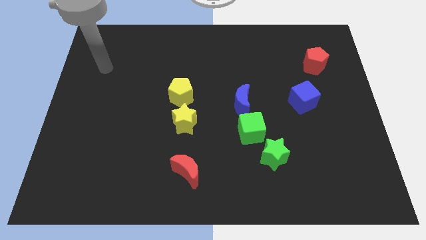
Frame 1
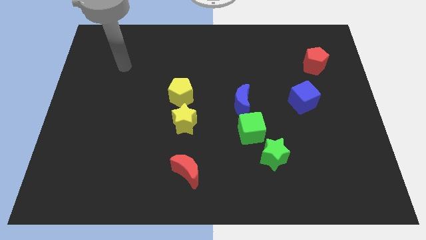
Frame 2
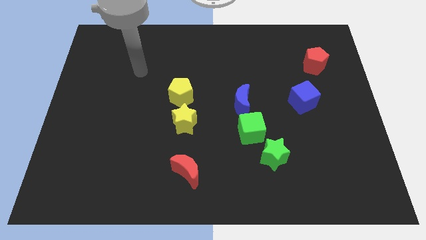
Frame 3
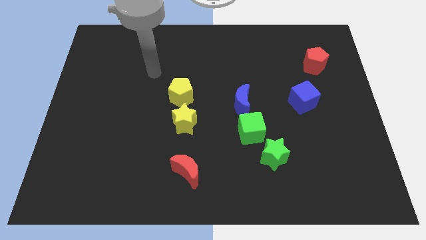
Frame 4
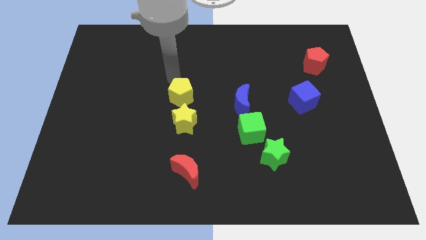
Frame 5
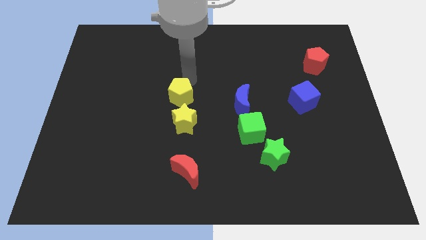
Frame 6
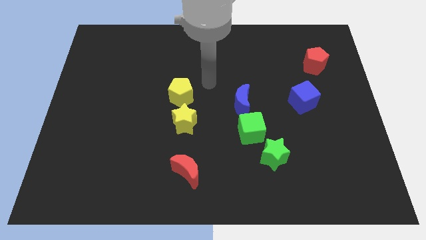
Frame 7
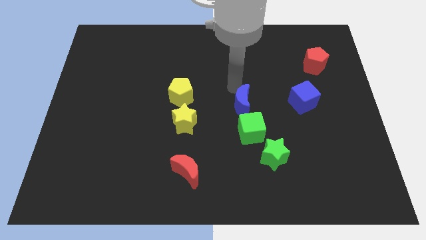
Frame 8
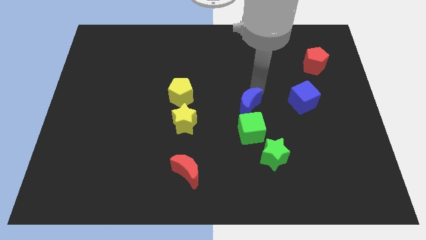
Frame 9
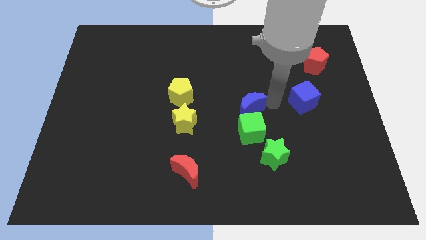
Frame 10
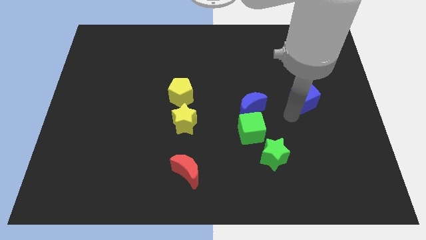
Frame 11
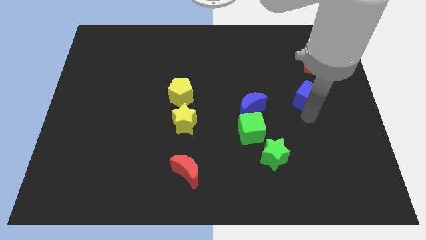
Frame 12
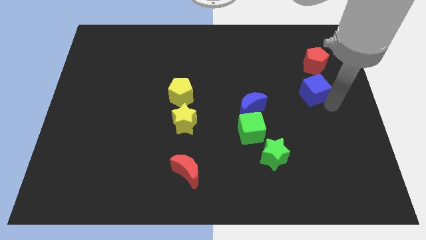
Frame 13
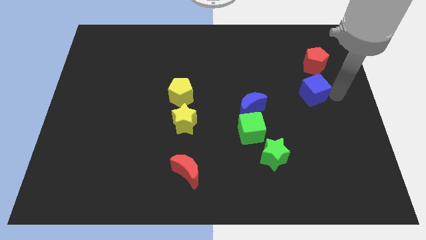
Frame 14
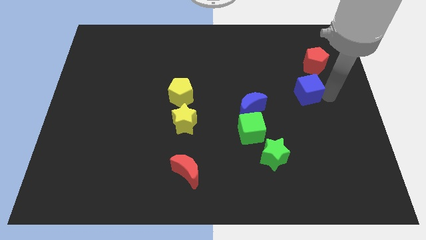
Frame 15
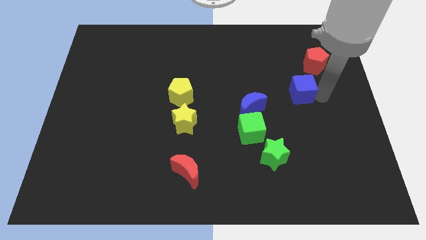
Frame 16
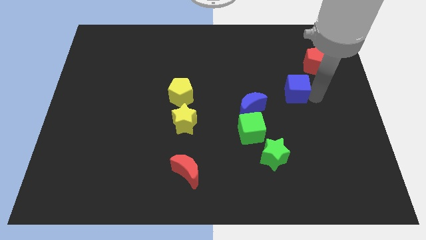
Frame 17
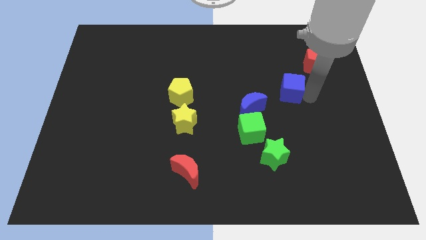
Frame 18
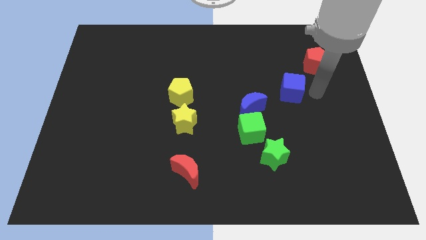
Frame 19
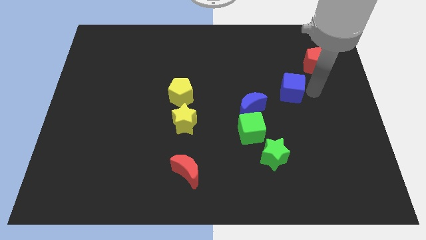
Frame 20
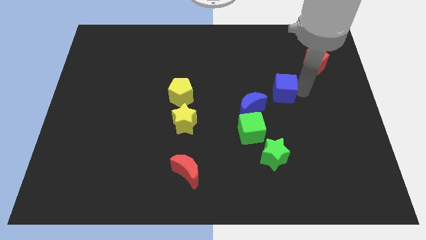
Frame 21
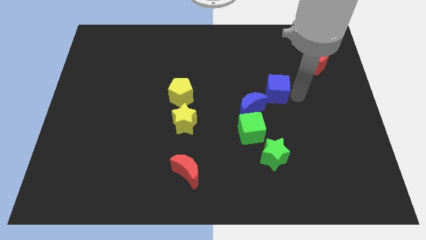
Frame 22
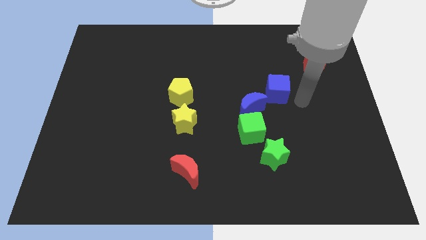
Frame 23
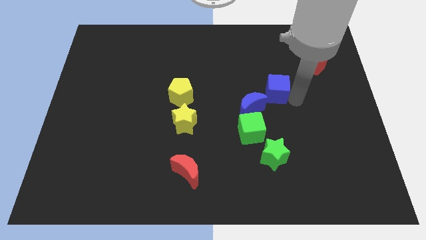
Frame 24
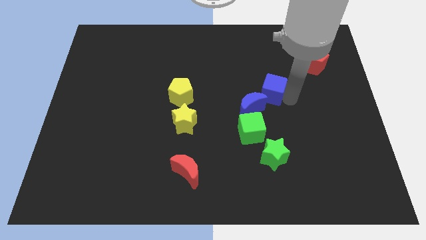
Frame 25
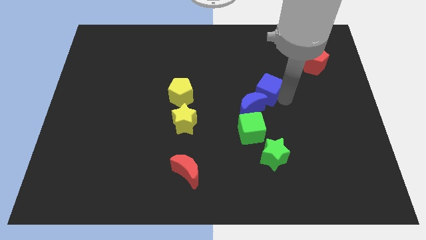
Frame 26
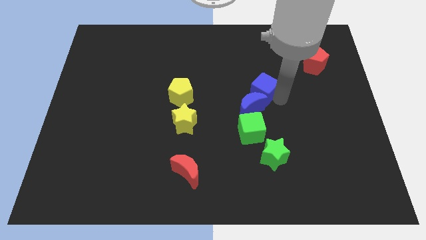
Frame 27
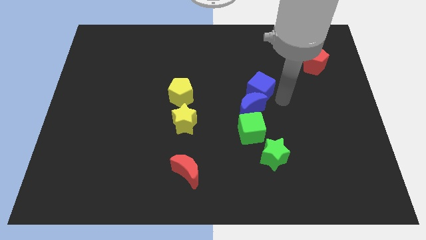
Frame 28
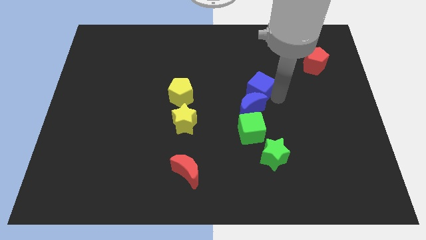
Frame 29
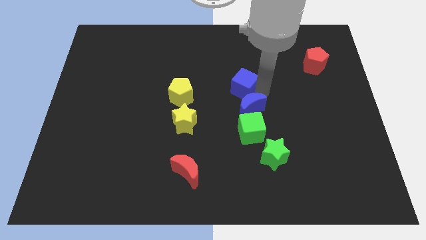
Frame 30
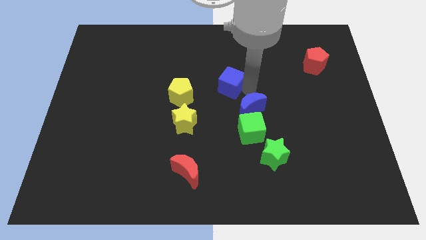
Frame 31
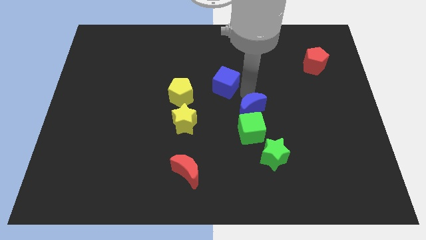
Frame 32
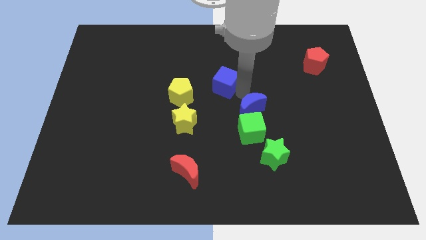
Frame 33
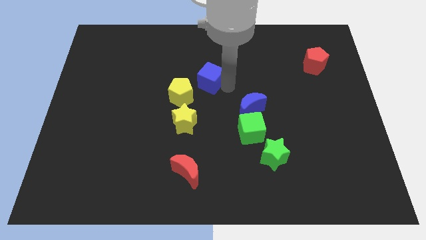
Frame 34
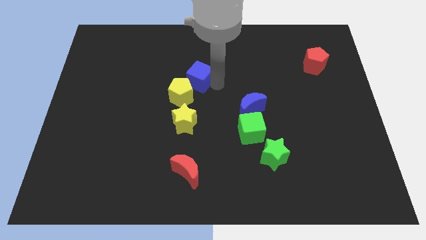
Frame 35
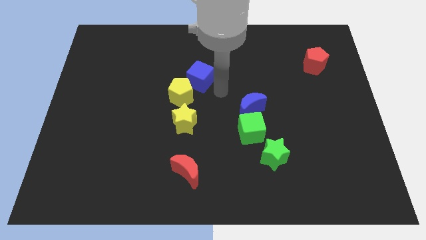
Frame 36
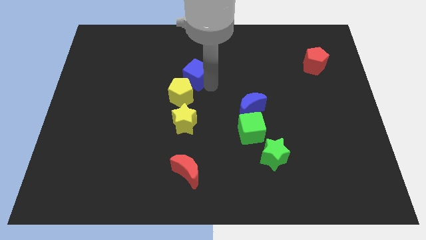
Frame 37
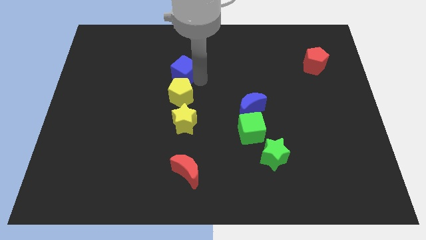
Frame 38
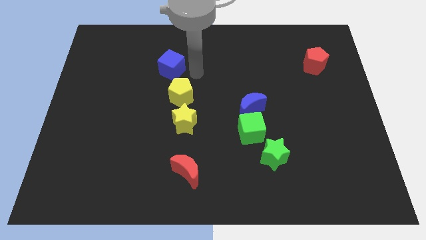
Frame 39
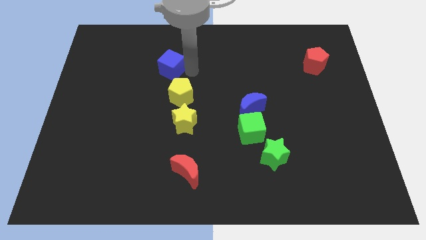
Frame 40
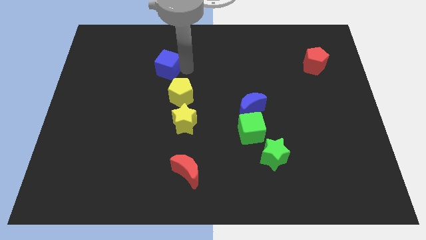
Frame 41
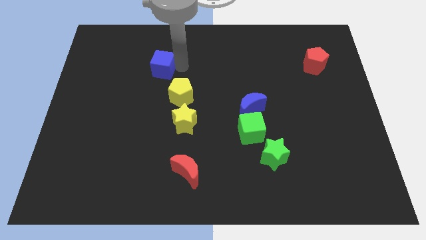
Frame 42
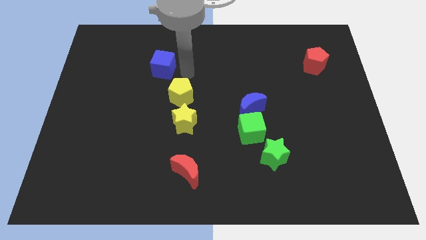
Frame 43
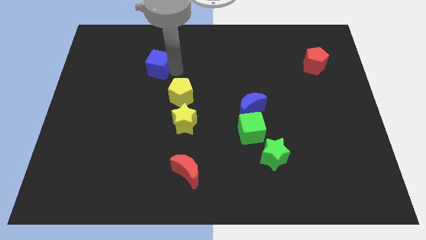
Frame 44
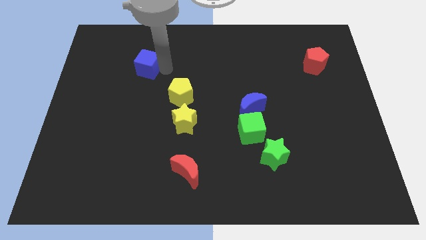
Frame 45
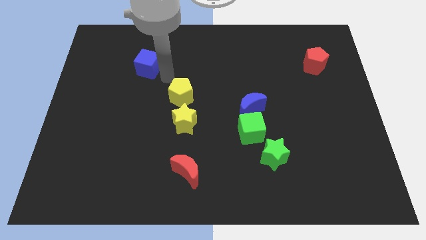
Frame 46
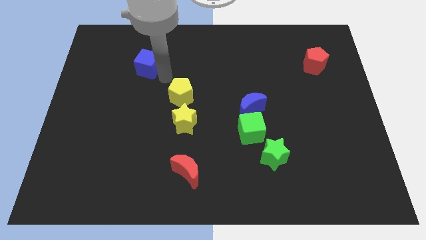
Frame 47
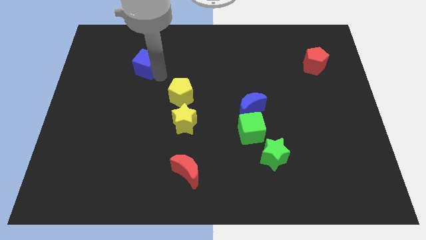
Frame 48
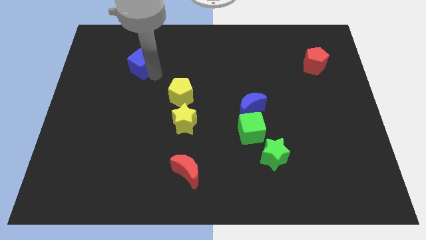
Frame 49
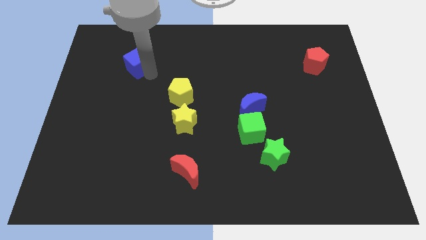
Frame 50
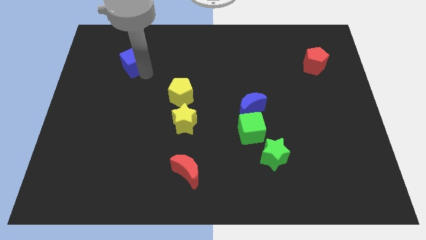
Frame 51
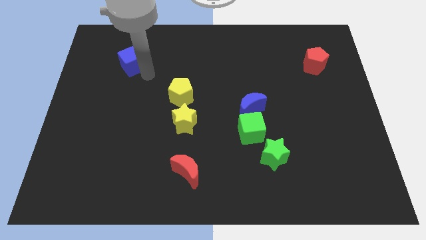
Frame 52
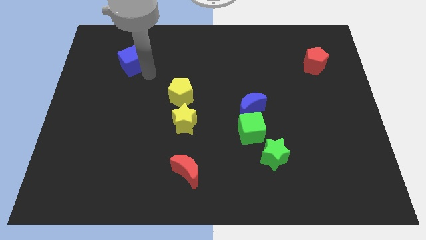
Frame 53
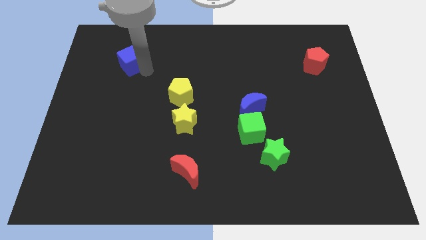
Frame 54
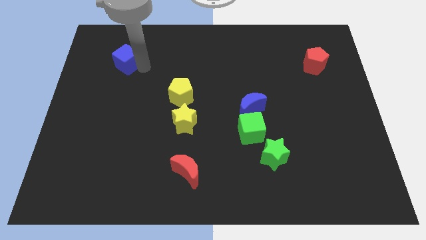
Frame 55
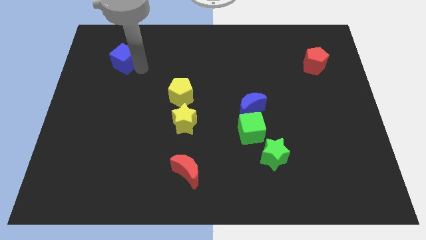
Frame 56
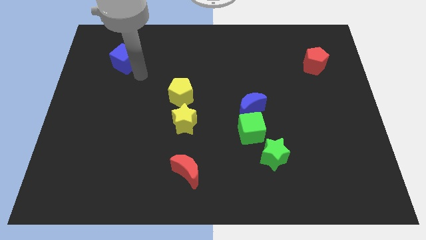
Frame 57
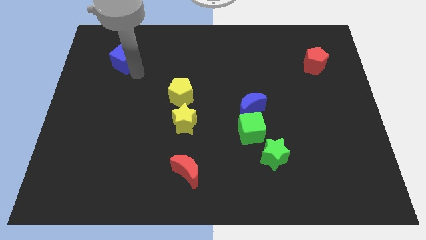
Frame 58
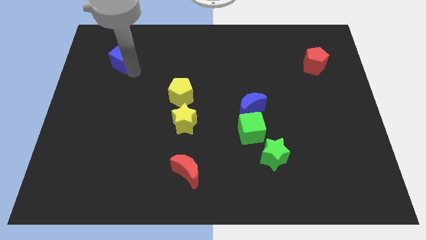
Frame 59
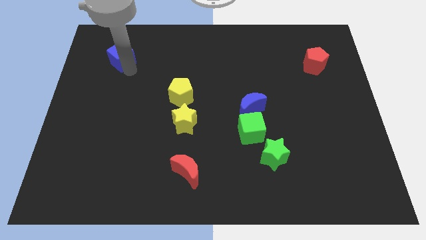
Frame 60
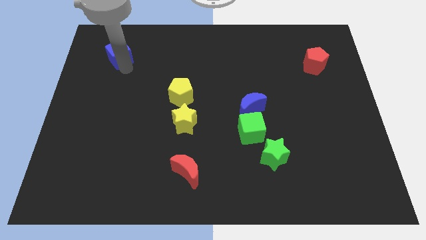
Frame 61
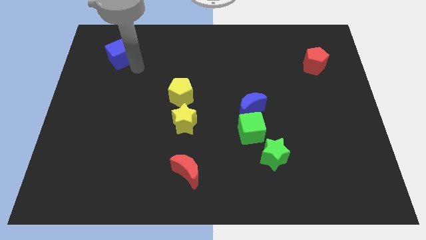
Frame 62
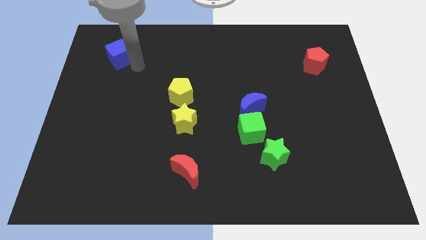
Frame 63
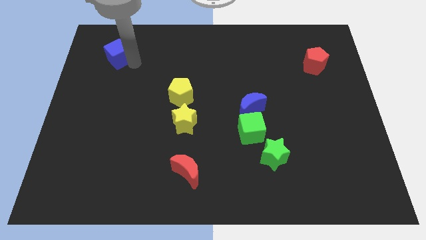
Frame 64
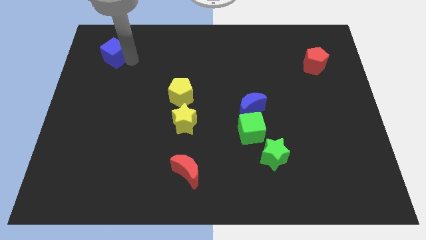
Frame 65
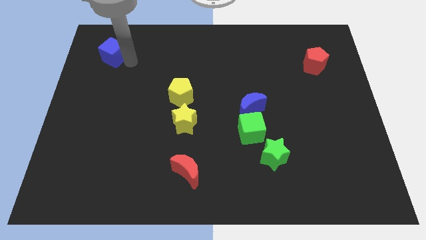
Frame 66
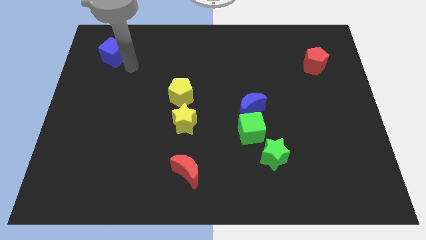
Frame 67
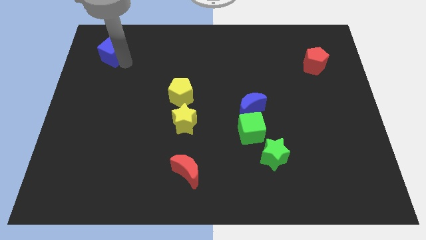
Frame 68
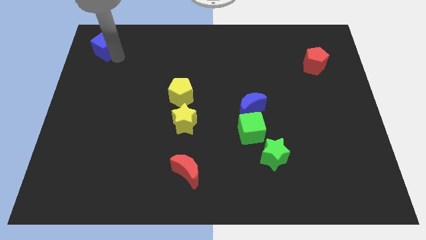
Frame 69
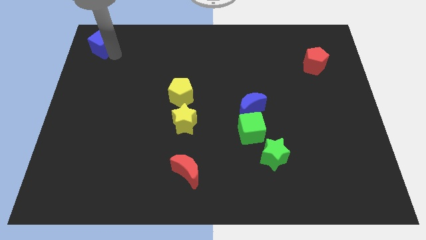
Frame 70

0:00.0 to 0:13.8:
slide the blue cube to the top left corner

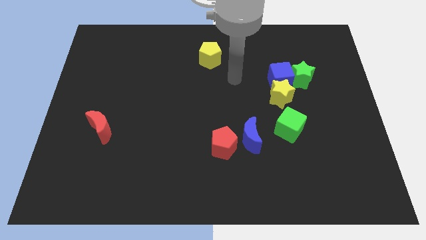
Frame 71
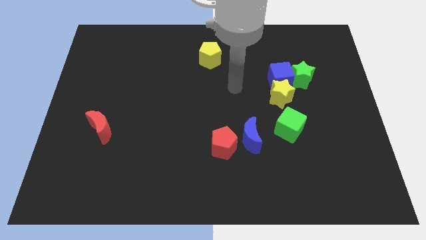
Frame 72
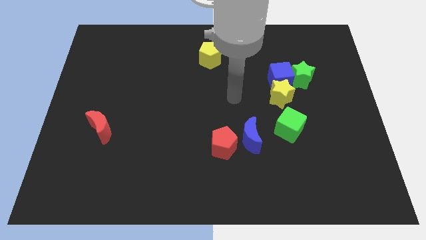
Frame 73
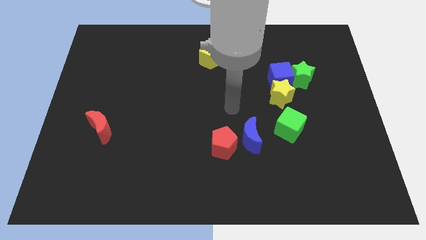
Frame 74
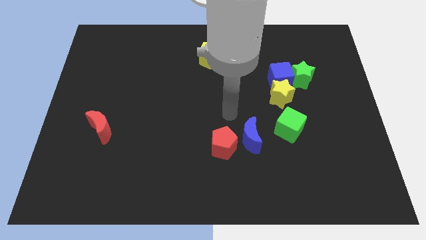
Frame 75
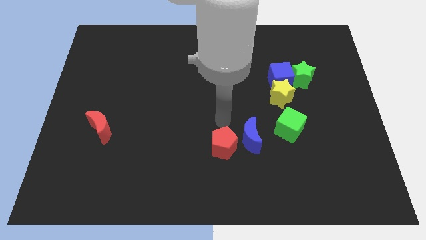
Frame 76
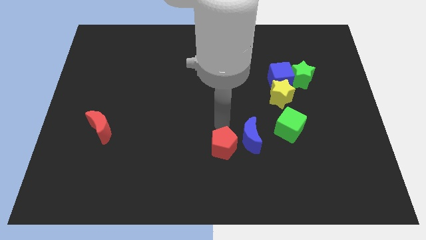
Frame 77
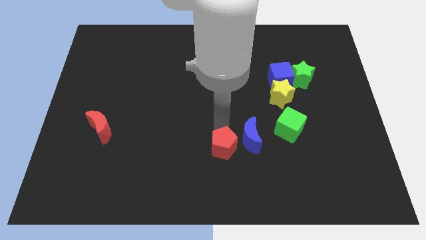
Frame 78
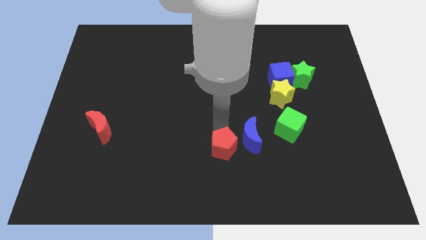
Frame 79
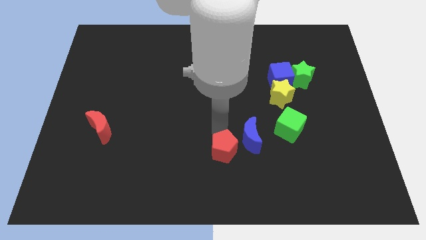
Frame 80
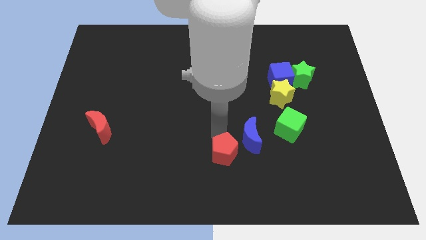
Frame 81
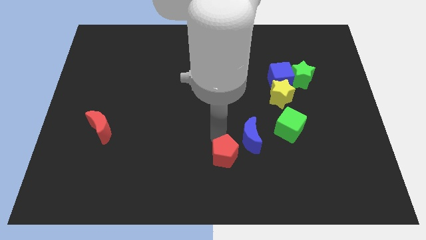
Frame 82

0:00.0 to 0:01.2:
move the red pentagon to the bottom
